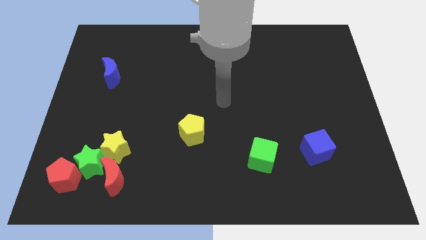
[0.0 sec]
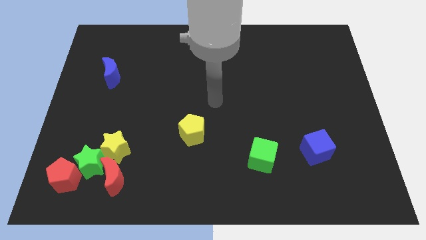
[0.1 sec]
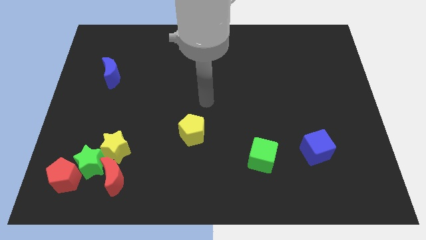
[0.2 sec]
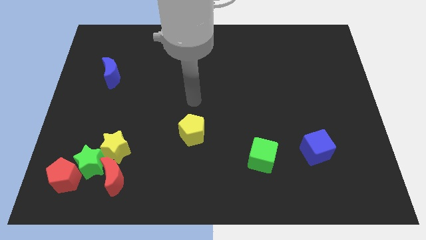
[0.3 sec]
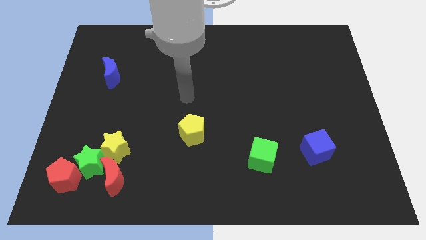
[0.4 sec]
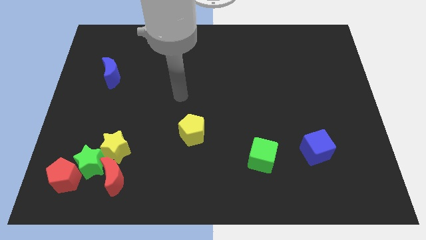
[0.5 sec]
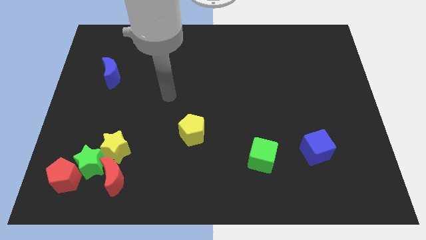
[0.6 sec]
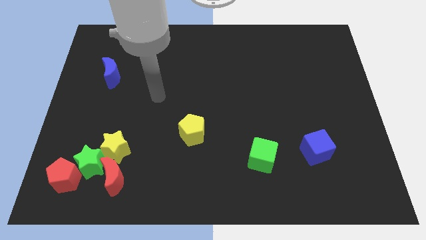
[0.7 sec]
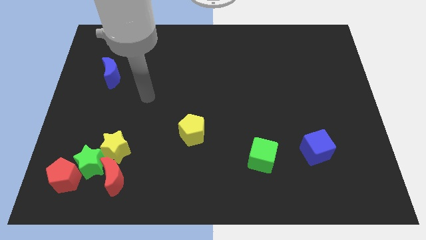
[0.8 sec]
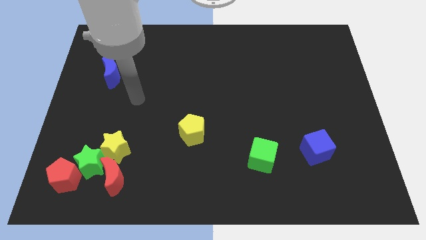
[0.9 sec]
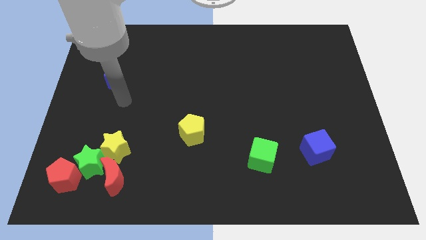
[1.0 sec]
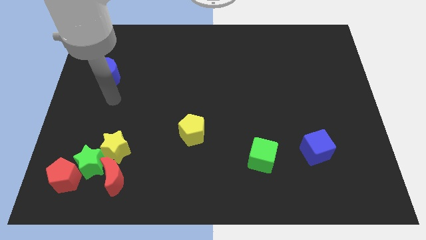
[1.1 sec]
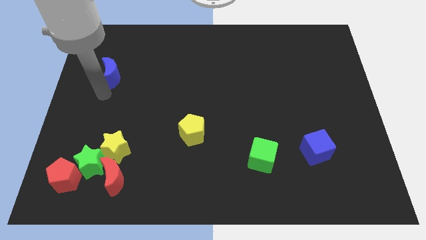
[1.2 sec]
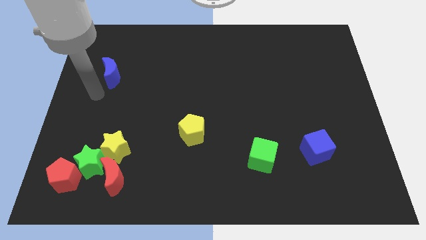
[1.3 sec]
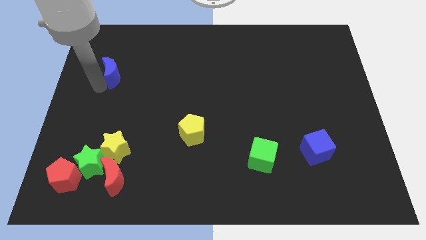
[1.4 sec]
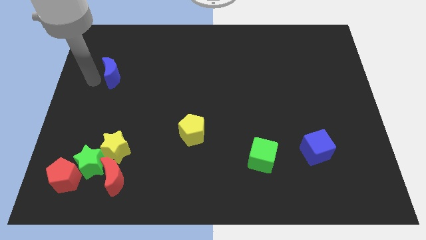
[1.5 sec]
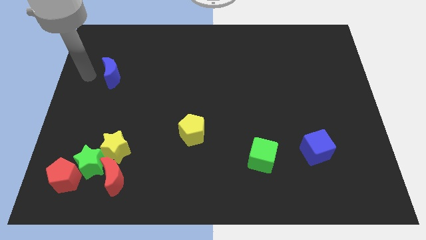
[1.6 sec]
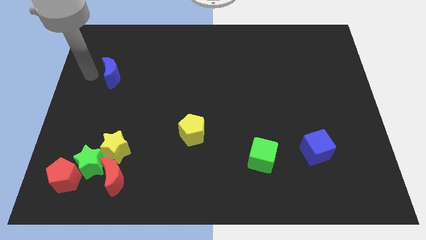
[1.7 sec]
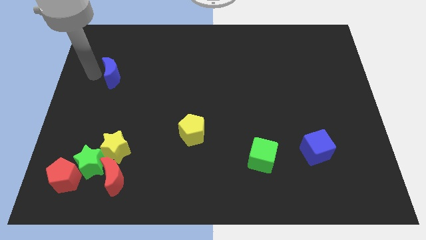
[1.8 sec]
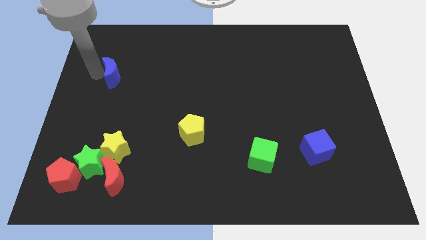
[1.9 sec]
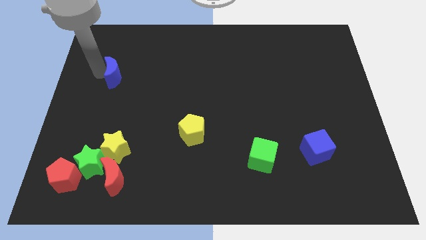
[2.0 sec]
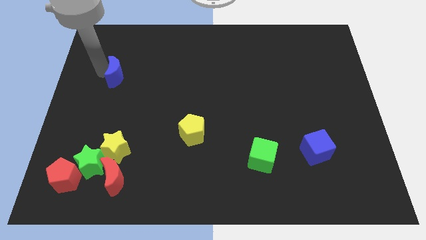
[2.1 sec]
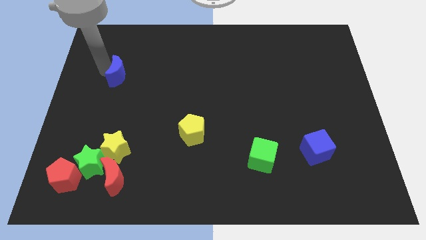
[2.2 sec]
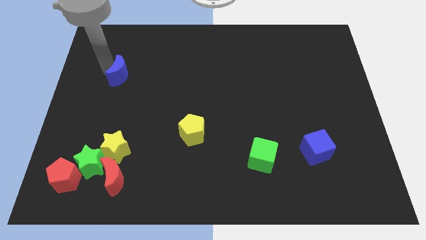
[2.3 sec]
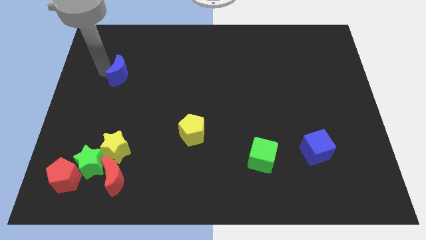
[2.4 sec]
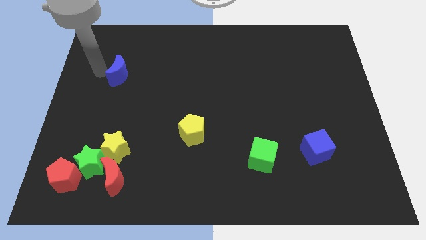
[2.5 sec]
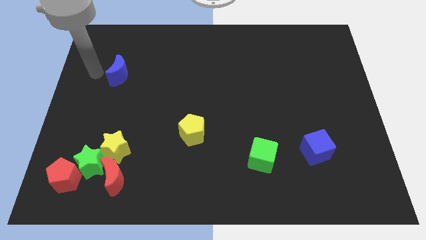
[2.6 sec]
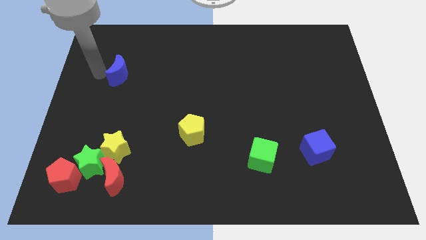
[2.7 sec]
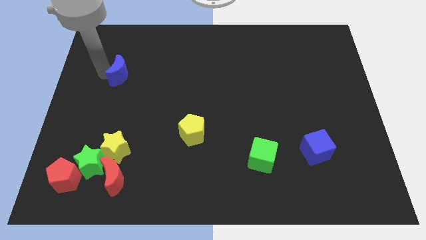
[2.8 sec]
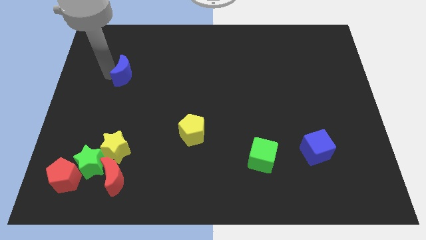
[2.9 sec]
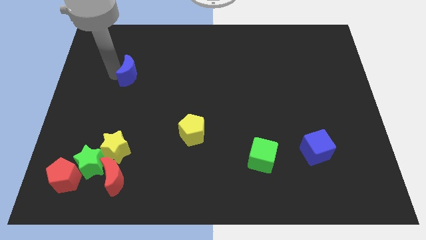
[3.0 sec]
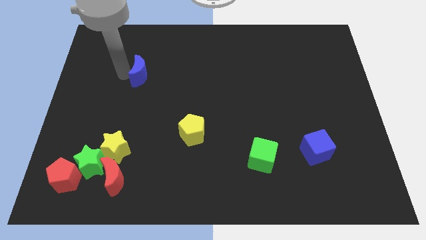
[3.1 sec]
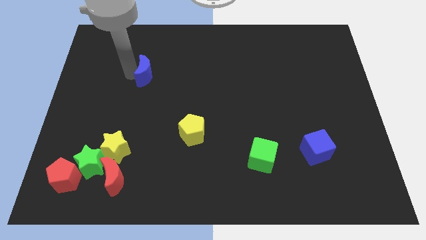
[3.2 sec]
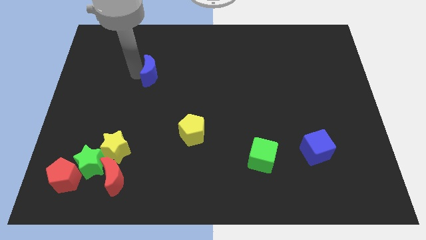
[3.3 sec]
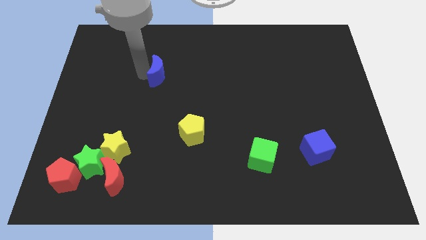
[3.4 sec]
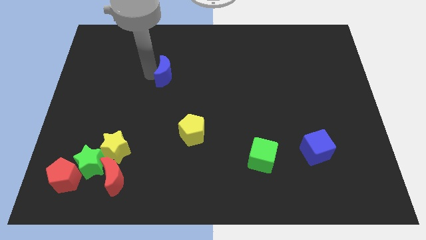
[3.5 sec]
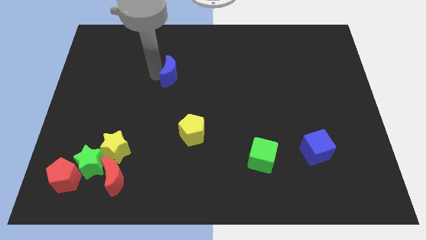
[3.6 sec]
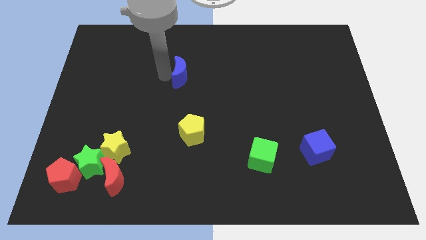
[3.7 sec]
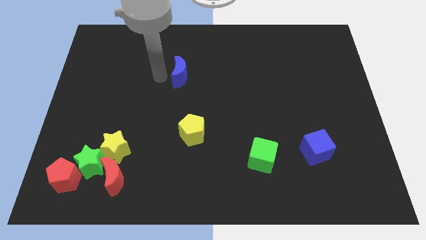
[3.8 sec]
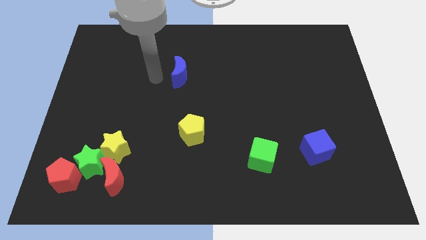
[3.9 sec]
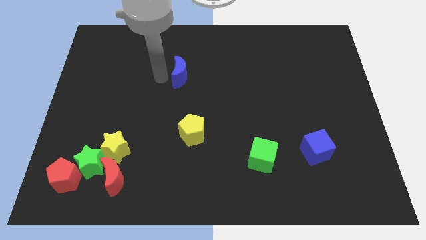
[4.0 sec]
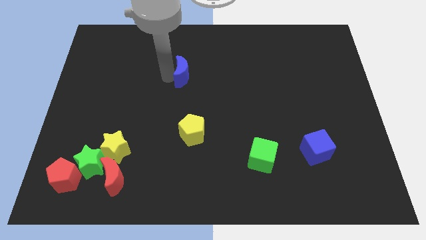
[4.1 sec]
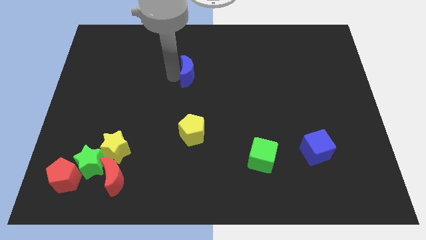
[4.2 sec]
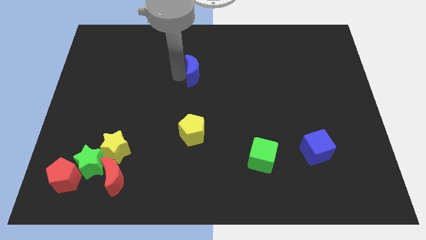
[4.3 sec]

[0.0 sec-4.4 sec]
slide the blue moon to the right

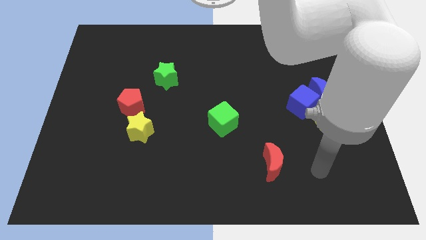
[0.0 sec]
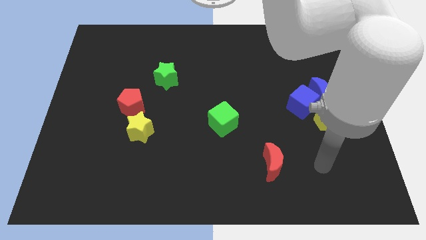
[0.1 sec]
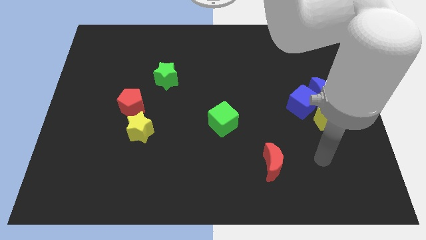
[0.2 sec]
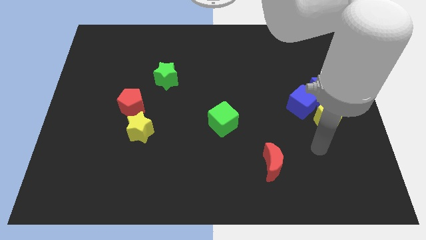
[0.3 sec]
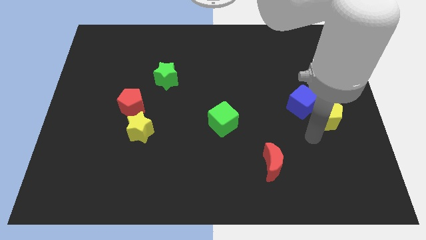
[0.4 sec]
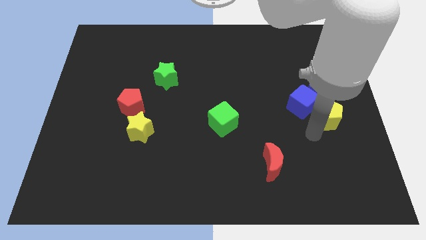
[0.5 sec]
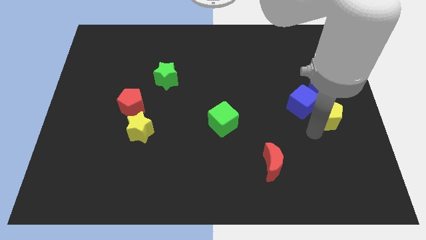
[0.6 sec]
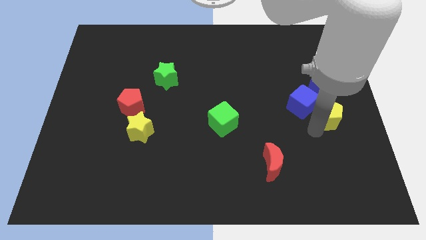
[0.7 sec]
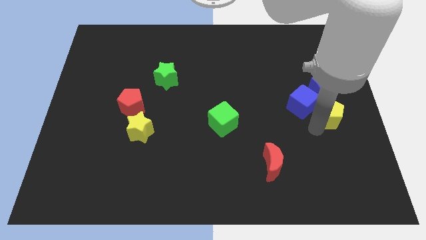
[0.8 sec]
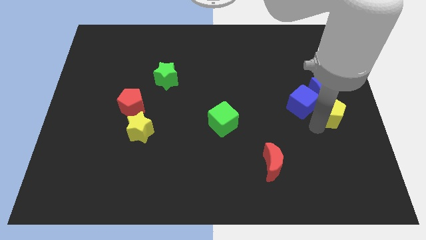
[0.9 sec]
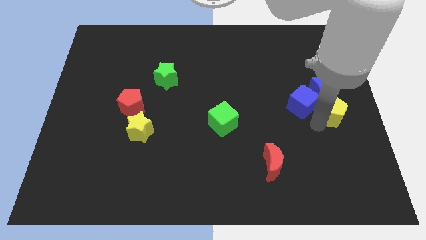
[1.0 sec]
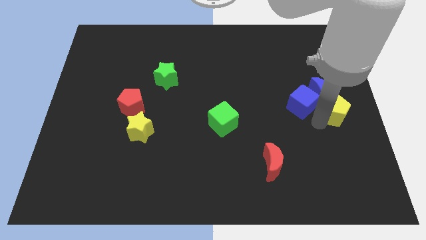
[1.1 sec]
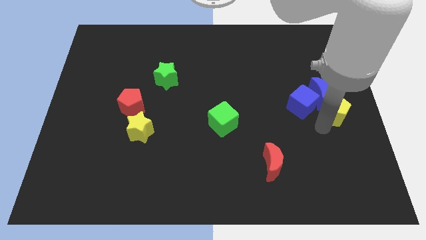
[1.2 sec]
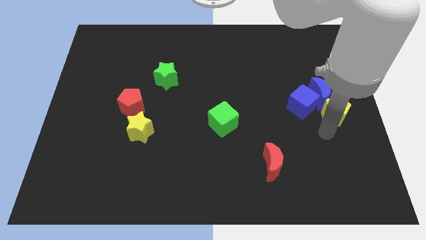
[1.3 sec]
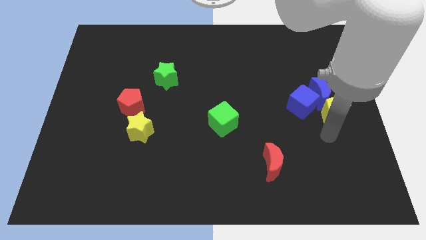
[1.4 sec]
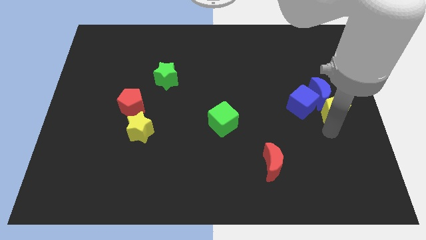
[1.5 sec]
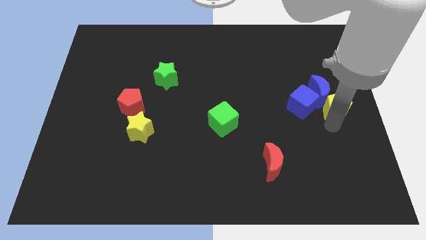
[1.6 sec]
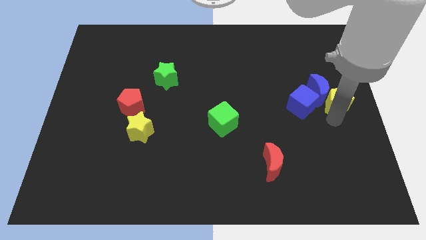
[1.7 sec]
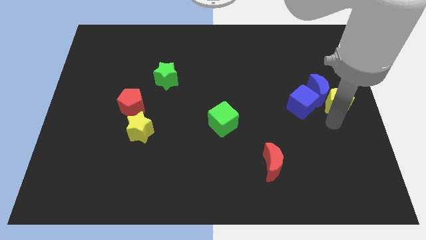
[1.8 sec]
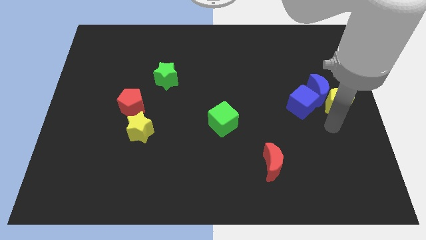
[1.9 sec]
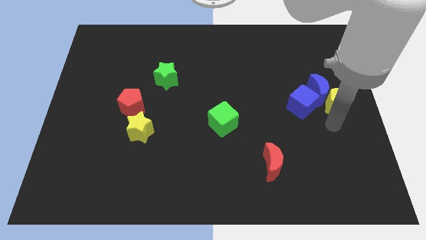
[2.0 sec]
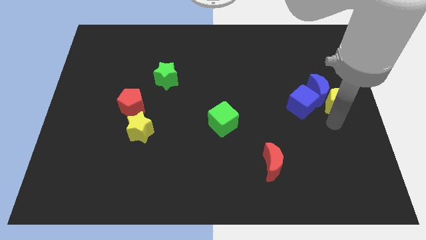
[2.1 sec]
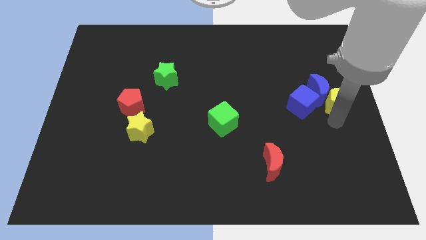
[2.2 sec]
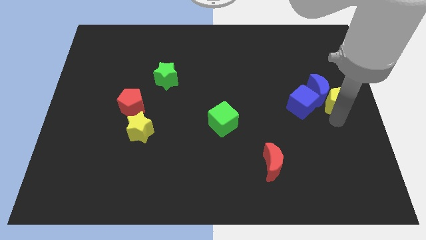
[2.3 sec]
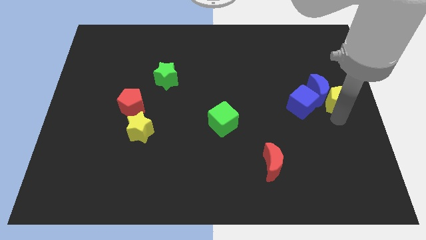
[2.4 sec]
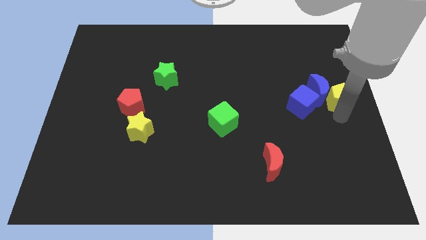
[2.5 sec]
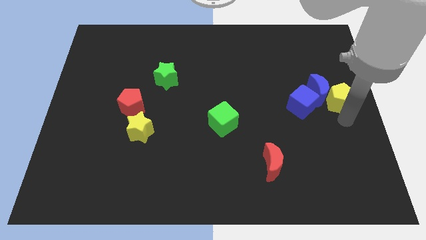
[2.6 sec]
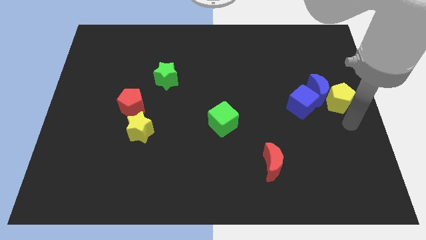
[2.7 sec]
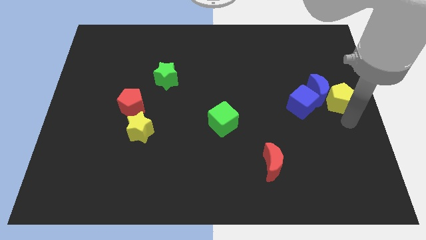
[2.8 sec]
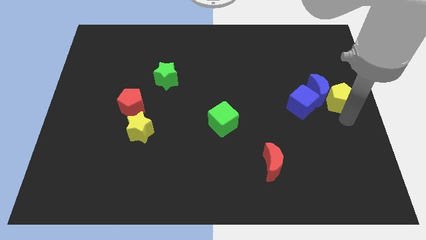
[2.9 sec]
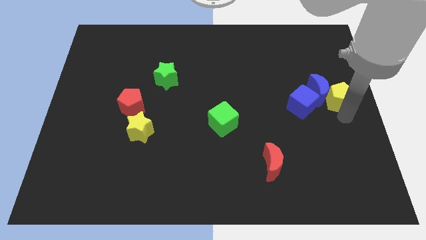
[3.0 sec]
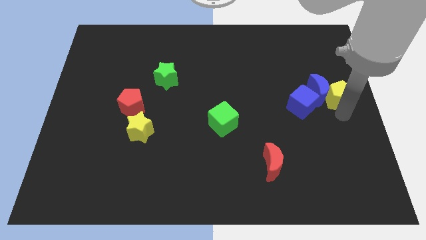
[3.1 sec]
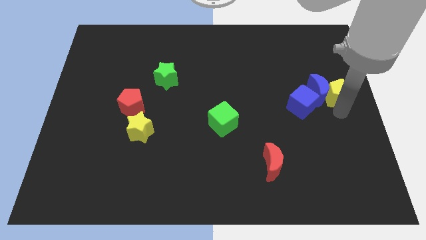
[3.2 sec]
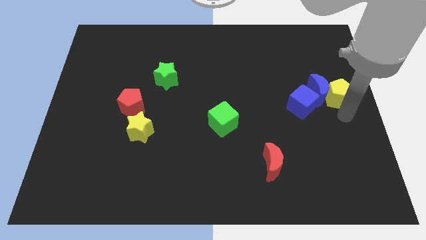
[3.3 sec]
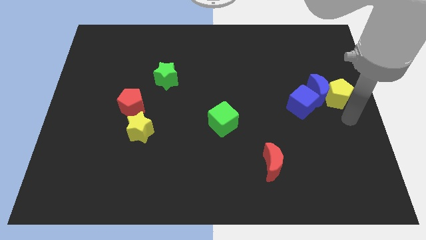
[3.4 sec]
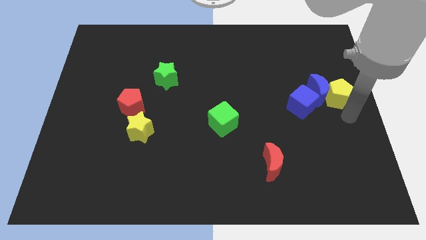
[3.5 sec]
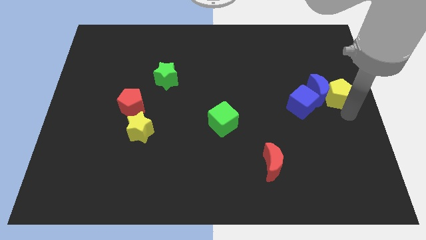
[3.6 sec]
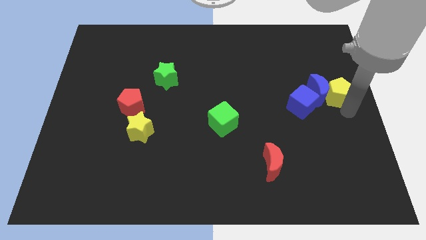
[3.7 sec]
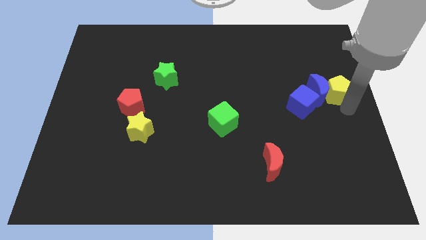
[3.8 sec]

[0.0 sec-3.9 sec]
slide the yellow pentagon upwards slightly
